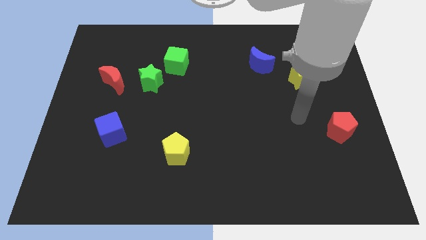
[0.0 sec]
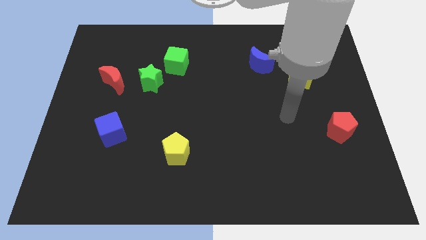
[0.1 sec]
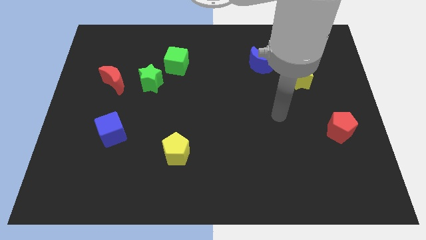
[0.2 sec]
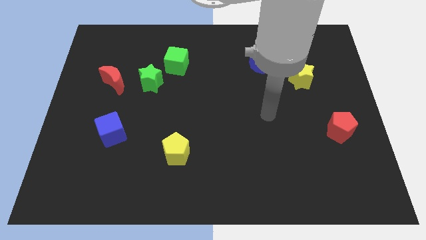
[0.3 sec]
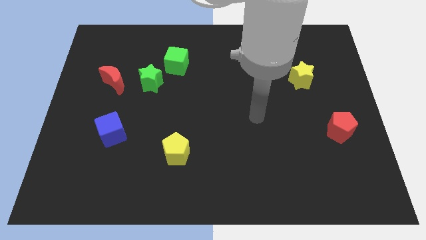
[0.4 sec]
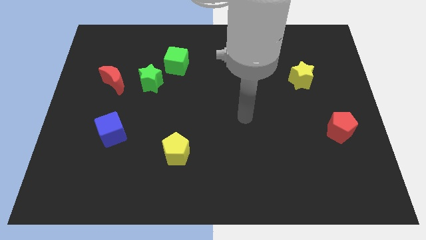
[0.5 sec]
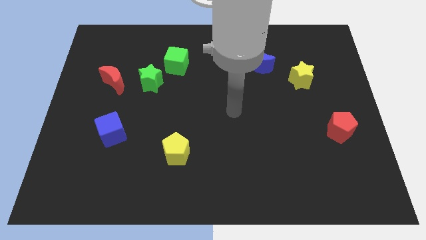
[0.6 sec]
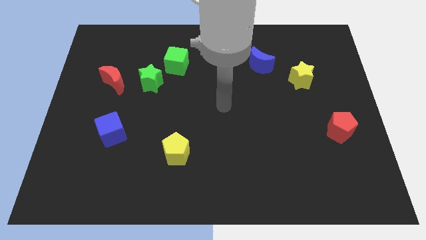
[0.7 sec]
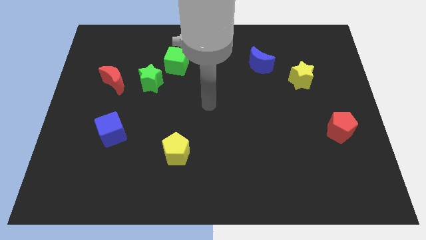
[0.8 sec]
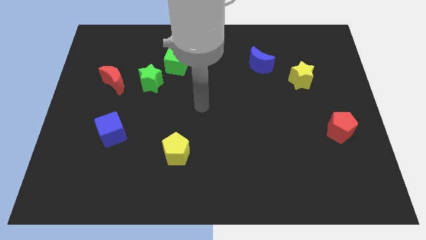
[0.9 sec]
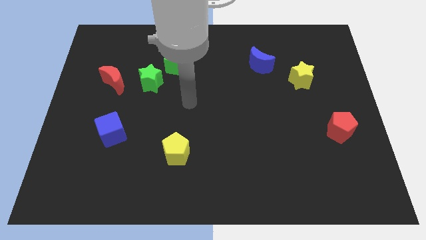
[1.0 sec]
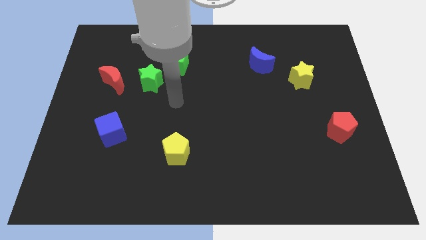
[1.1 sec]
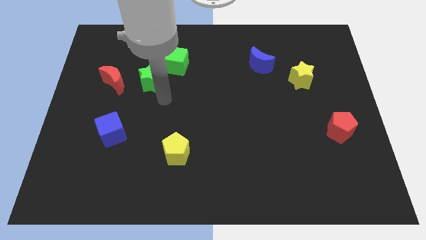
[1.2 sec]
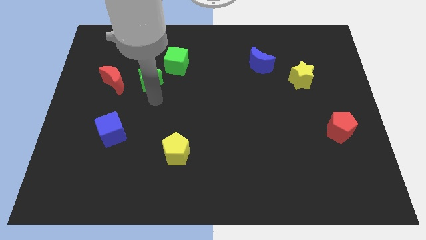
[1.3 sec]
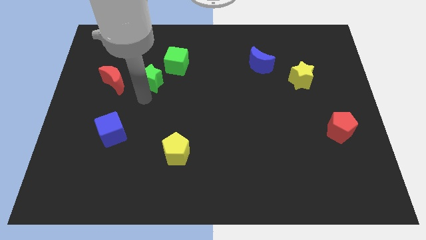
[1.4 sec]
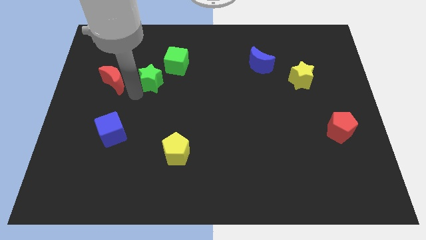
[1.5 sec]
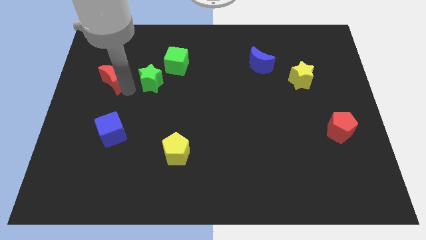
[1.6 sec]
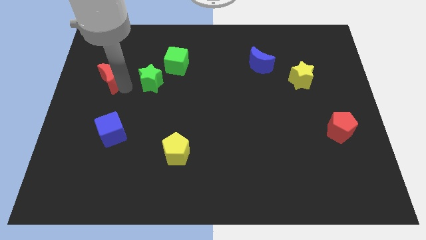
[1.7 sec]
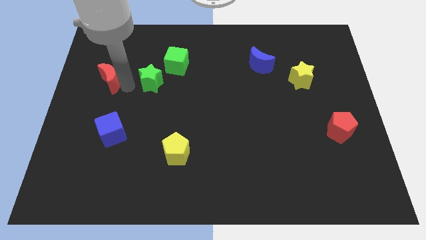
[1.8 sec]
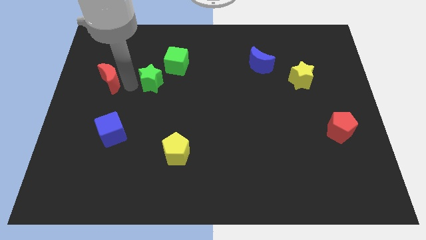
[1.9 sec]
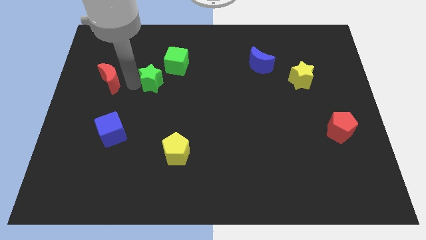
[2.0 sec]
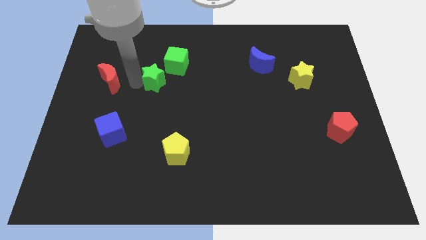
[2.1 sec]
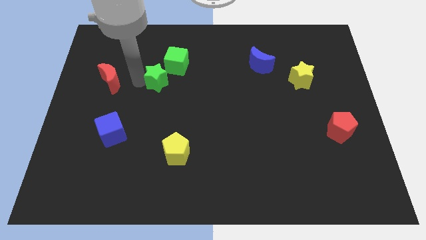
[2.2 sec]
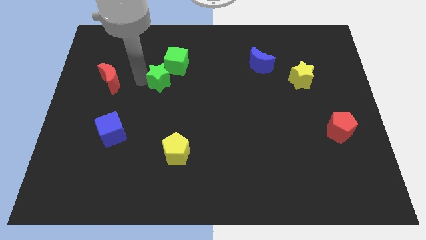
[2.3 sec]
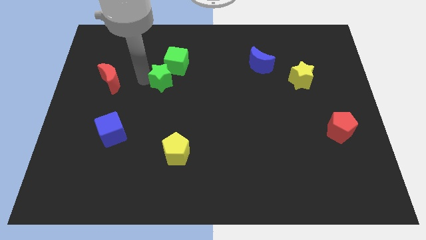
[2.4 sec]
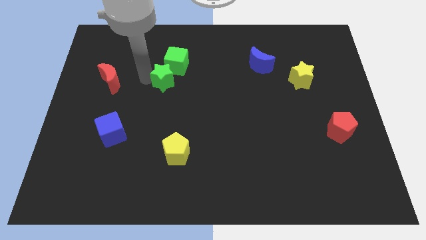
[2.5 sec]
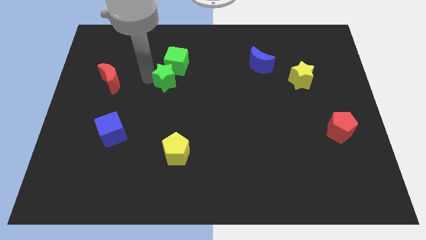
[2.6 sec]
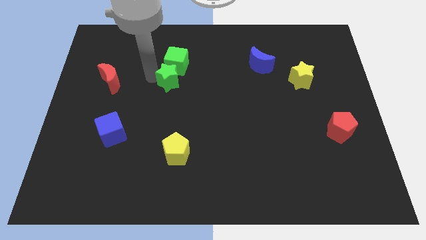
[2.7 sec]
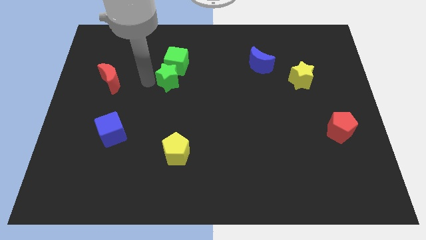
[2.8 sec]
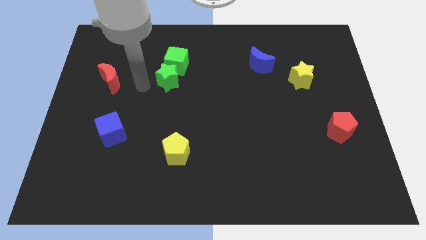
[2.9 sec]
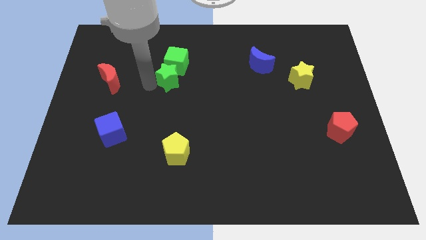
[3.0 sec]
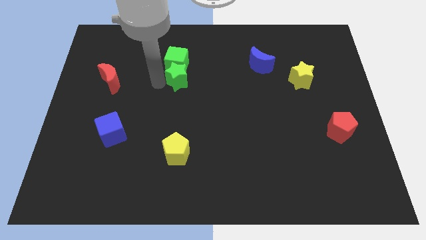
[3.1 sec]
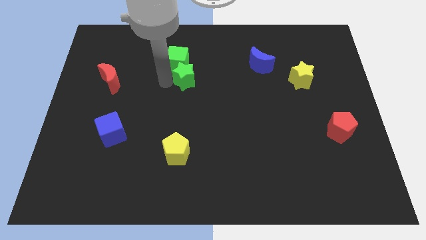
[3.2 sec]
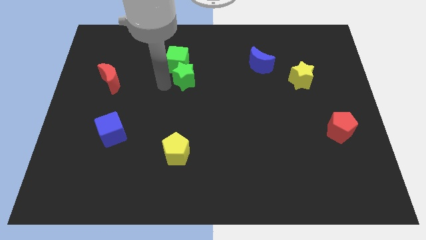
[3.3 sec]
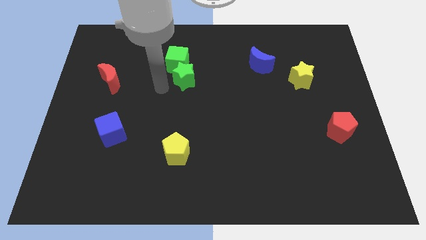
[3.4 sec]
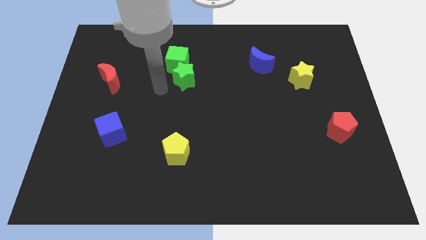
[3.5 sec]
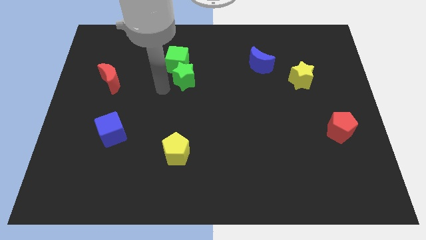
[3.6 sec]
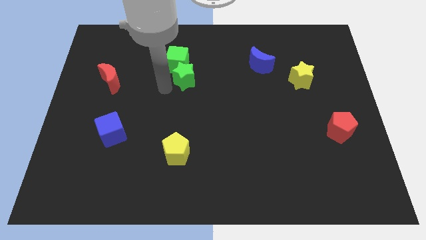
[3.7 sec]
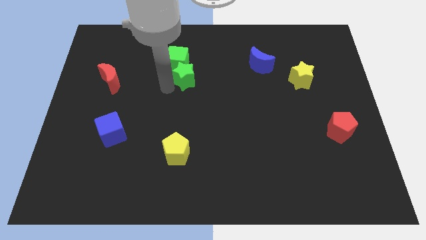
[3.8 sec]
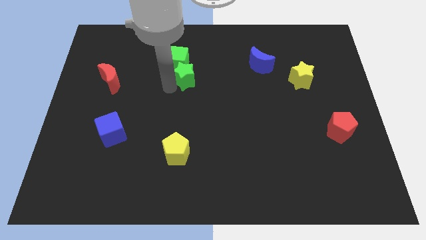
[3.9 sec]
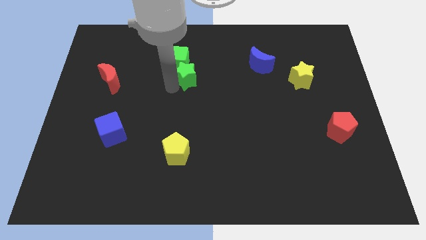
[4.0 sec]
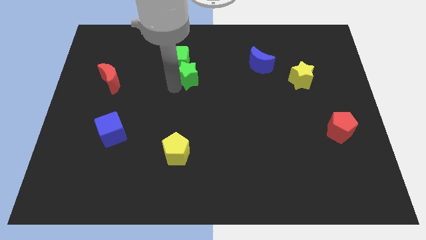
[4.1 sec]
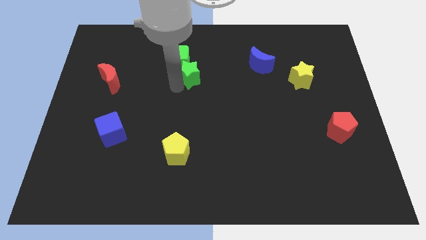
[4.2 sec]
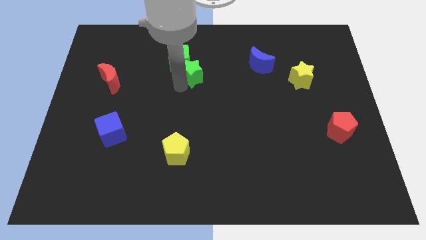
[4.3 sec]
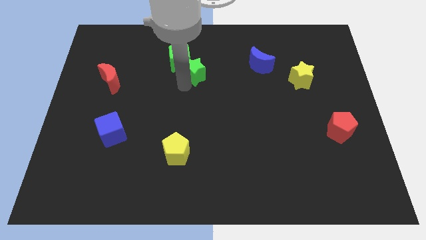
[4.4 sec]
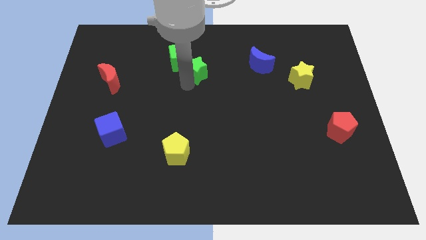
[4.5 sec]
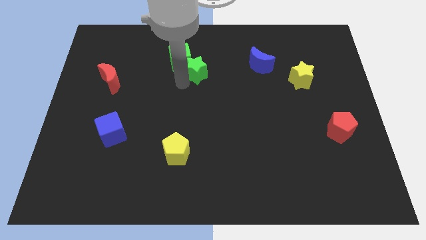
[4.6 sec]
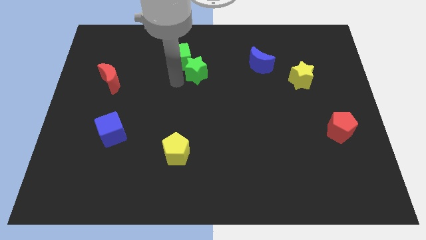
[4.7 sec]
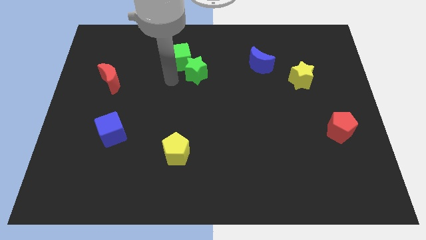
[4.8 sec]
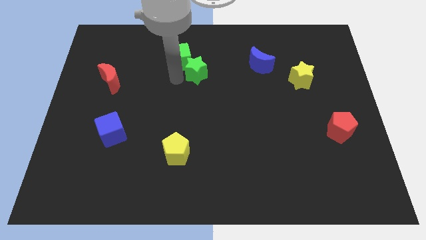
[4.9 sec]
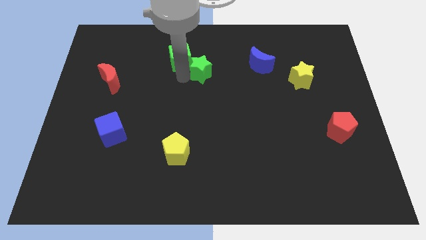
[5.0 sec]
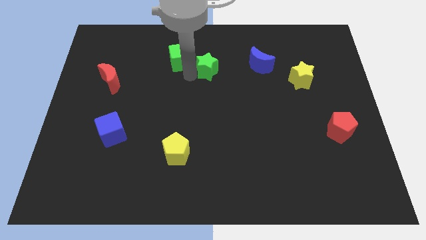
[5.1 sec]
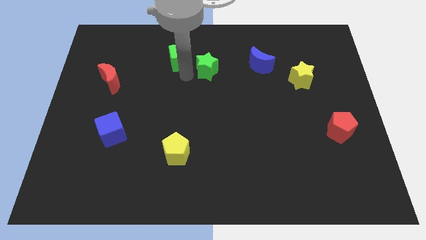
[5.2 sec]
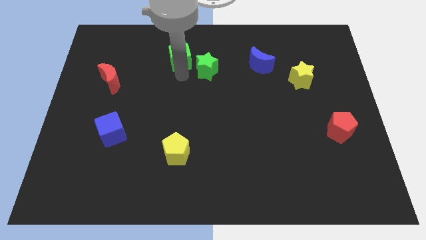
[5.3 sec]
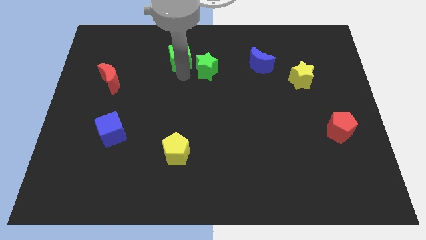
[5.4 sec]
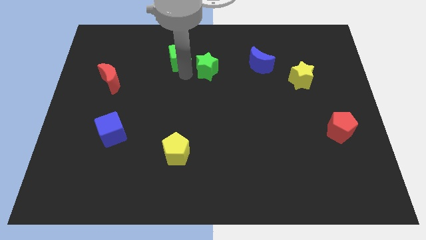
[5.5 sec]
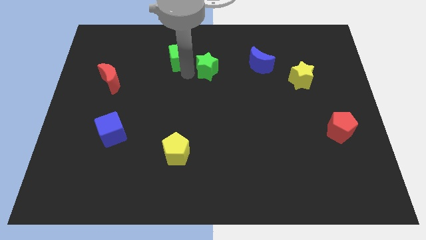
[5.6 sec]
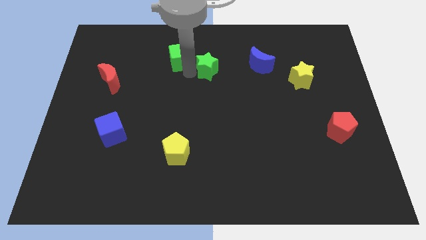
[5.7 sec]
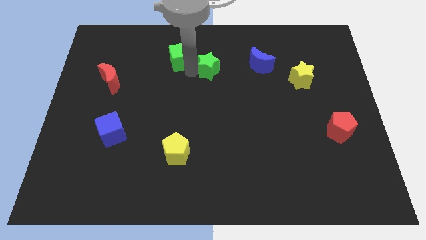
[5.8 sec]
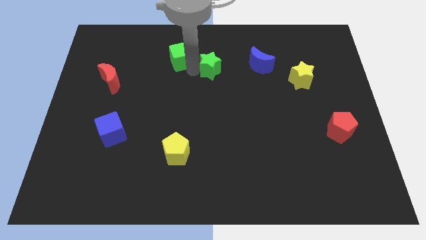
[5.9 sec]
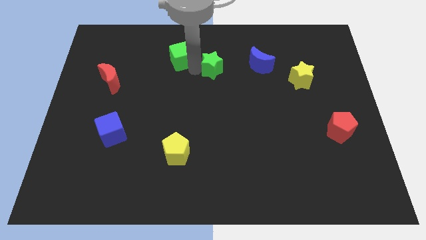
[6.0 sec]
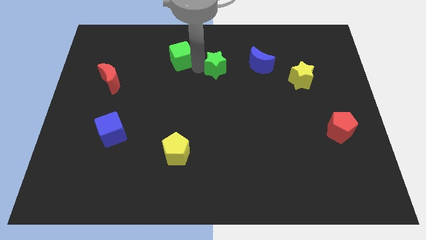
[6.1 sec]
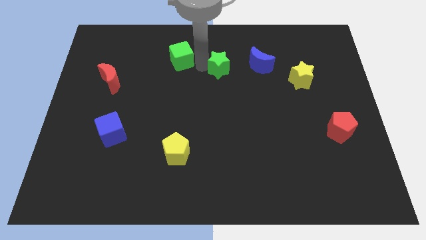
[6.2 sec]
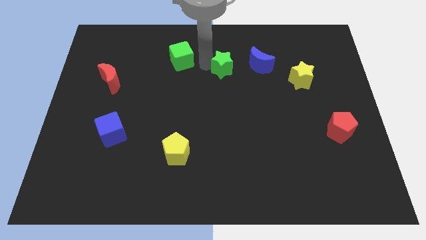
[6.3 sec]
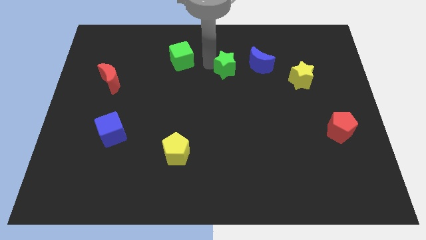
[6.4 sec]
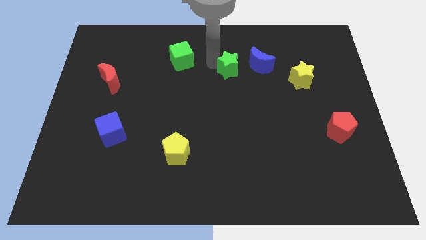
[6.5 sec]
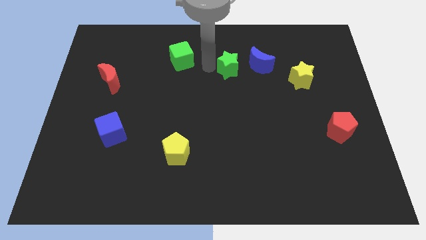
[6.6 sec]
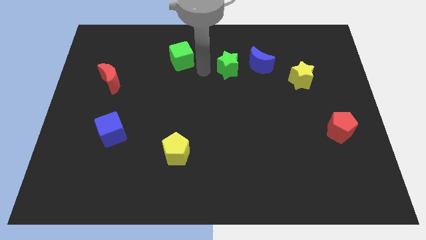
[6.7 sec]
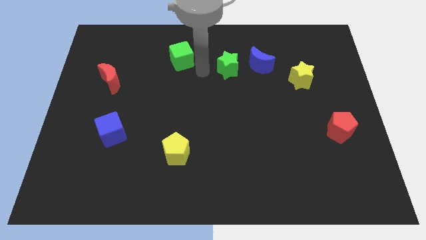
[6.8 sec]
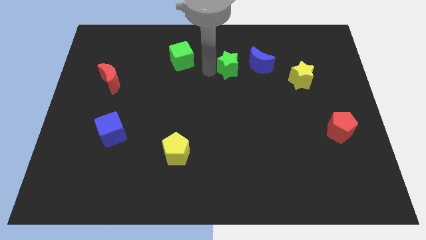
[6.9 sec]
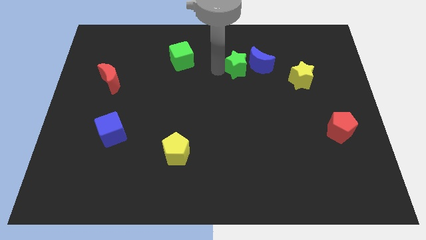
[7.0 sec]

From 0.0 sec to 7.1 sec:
put the green star next to the blue moon
